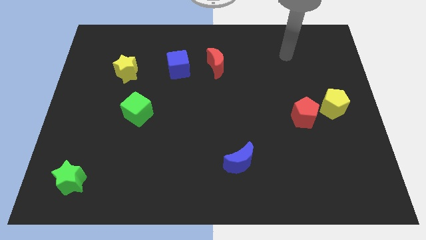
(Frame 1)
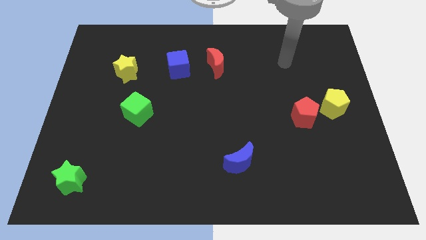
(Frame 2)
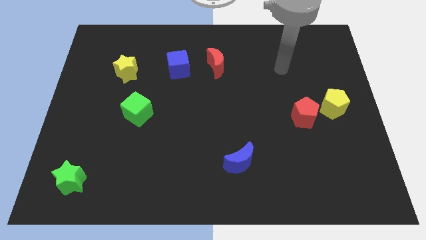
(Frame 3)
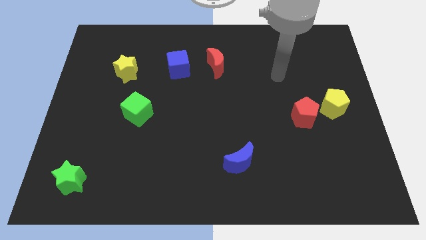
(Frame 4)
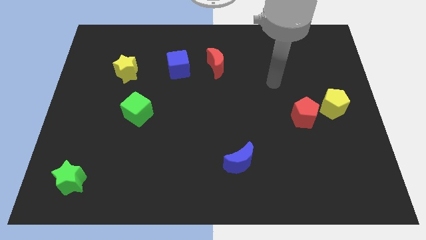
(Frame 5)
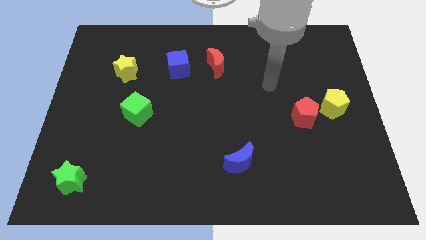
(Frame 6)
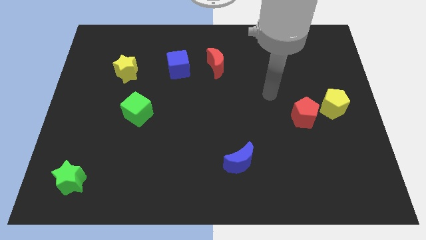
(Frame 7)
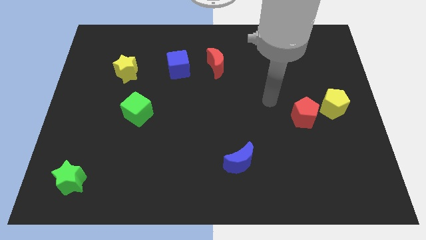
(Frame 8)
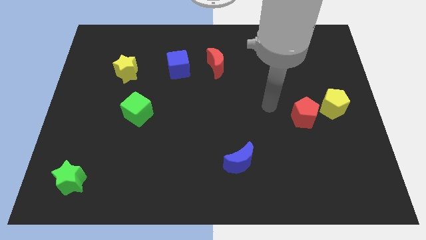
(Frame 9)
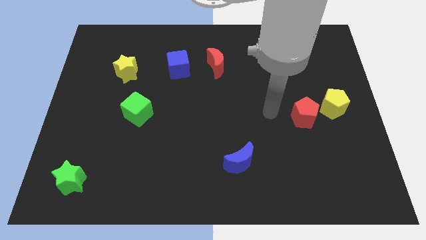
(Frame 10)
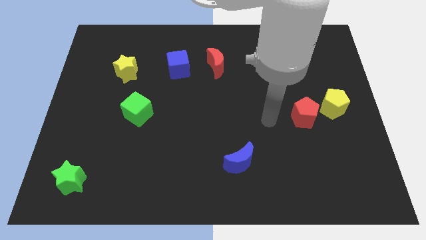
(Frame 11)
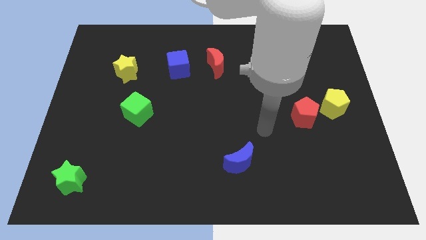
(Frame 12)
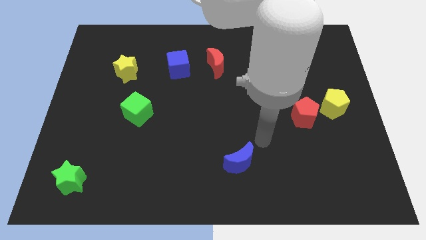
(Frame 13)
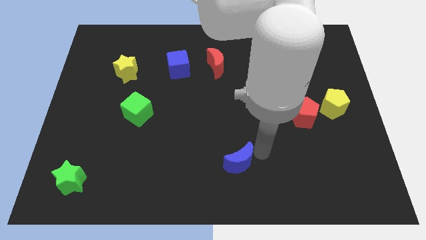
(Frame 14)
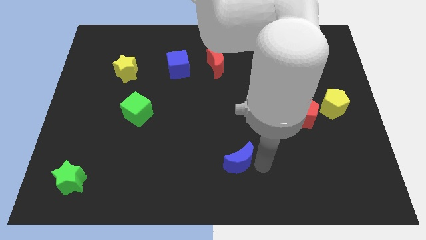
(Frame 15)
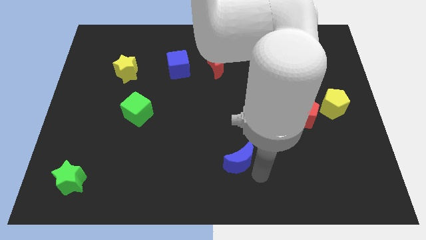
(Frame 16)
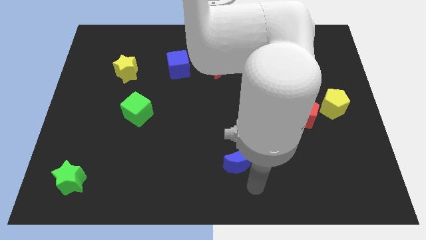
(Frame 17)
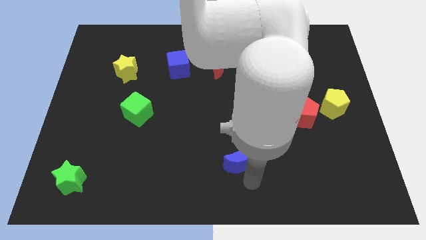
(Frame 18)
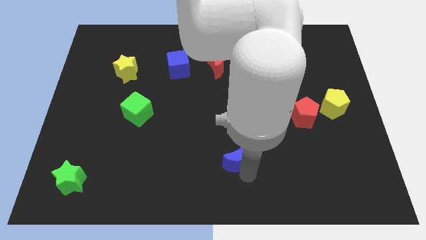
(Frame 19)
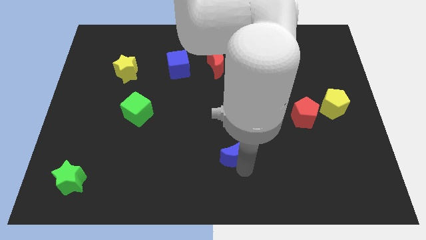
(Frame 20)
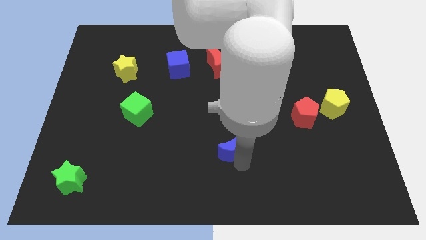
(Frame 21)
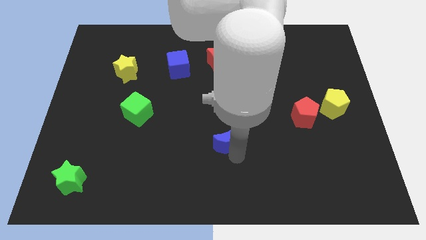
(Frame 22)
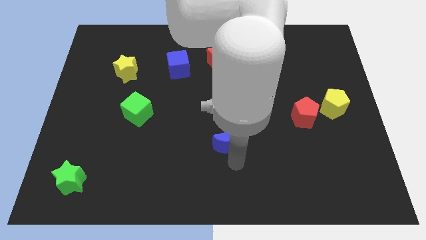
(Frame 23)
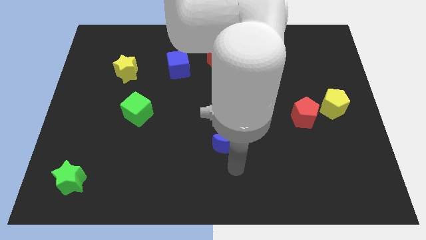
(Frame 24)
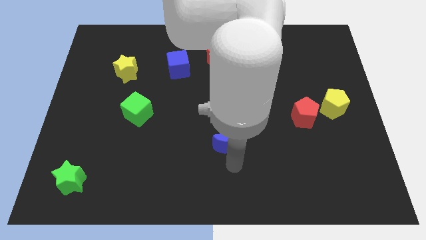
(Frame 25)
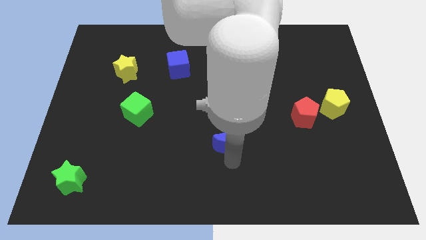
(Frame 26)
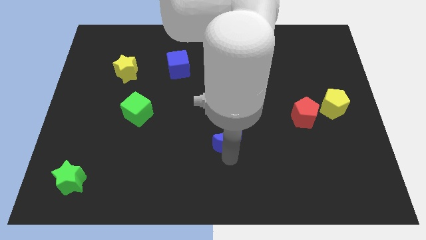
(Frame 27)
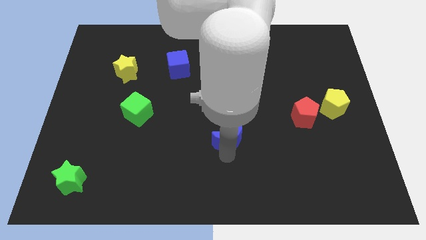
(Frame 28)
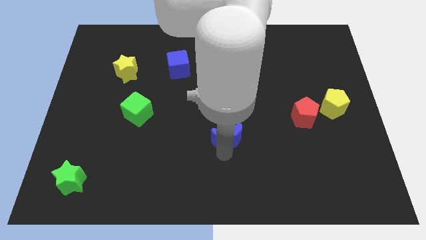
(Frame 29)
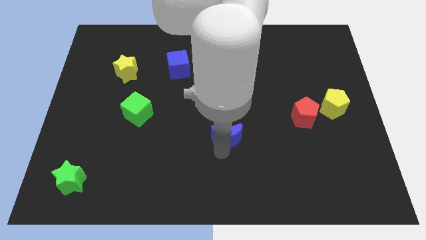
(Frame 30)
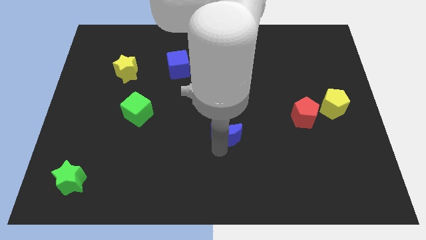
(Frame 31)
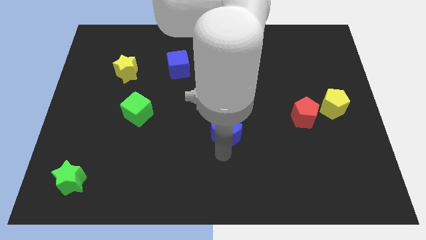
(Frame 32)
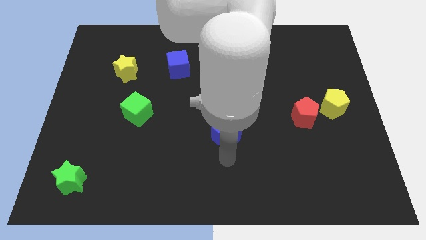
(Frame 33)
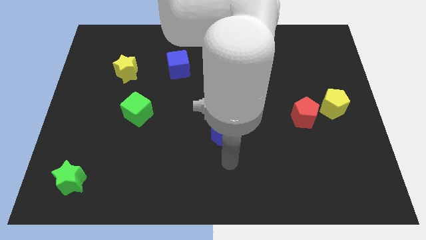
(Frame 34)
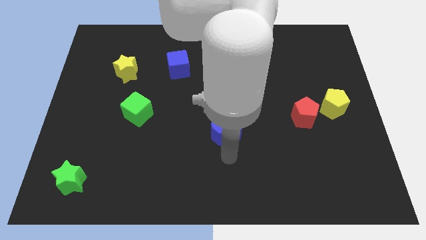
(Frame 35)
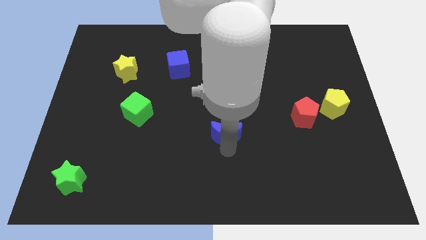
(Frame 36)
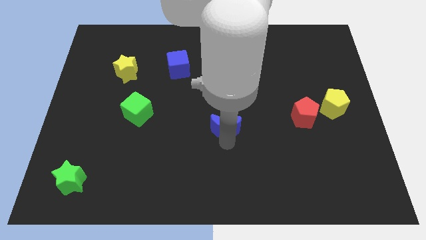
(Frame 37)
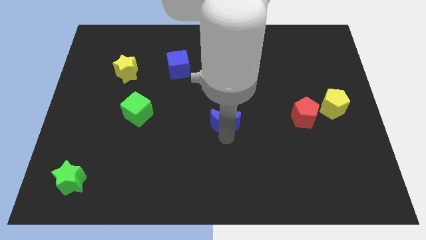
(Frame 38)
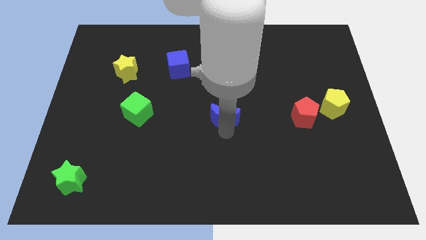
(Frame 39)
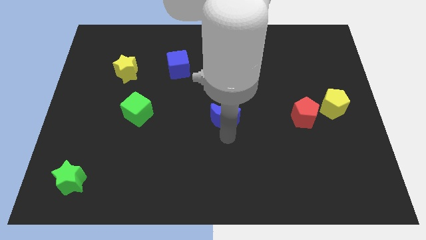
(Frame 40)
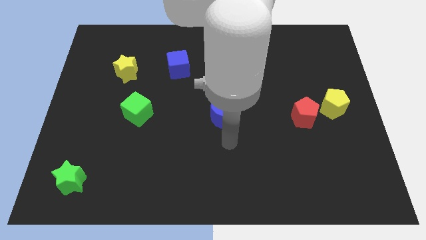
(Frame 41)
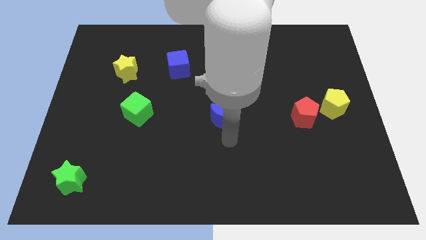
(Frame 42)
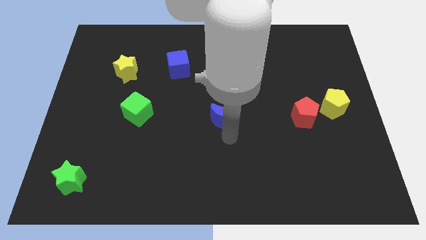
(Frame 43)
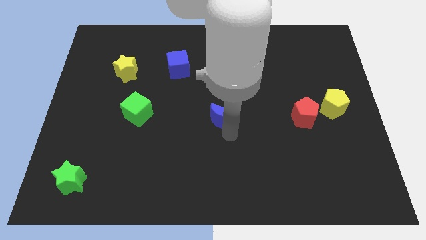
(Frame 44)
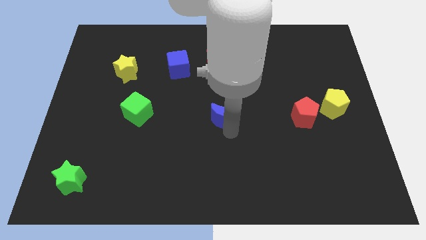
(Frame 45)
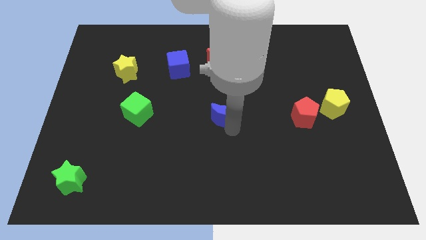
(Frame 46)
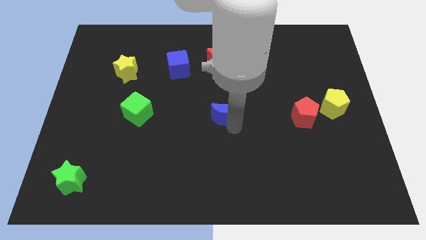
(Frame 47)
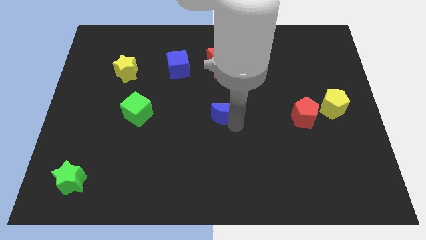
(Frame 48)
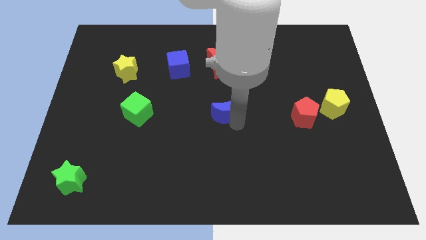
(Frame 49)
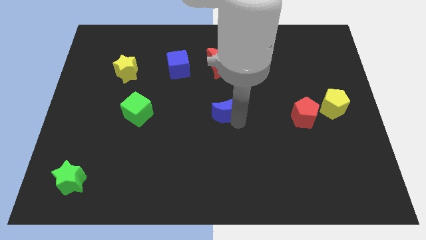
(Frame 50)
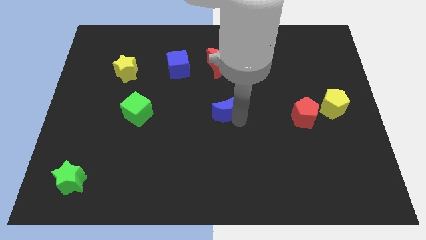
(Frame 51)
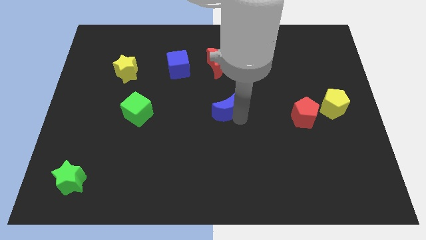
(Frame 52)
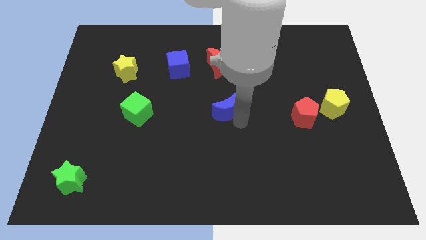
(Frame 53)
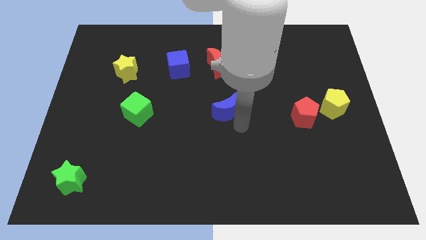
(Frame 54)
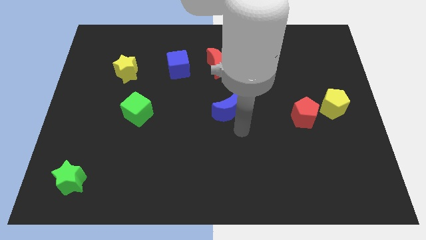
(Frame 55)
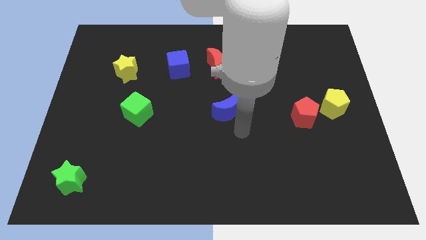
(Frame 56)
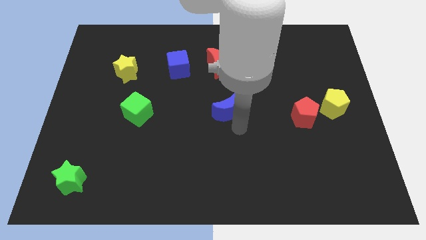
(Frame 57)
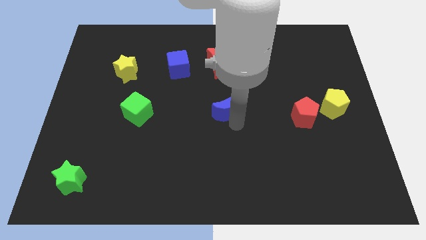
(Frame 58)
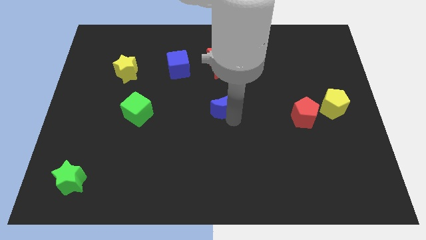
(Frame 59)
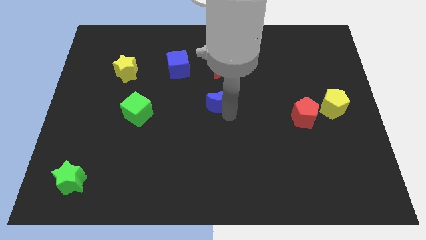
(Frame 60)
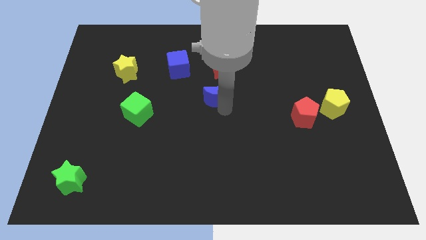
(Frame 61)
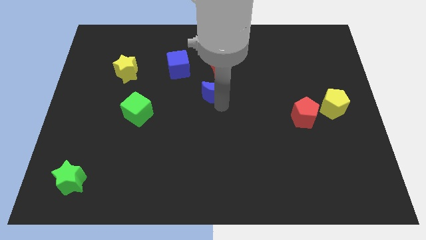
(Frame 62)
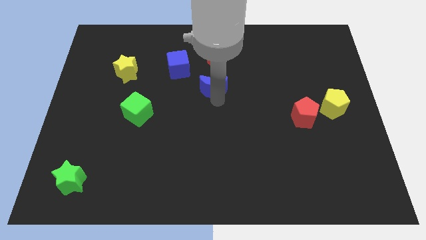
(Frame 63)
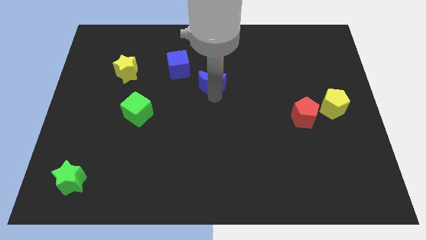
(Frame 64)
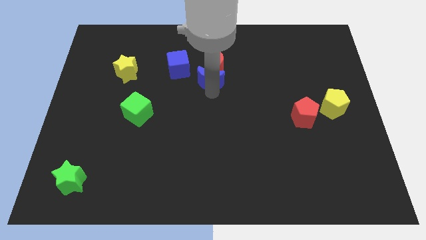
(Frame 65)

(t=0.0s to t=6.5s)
push the blue moon to the red moon

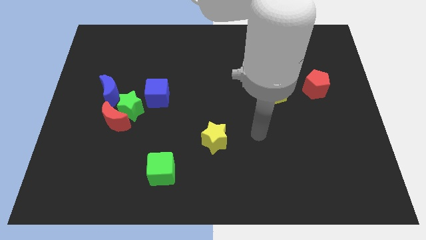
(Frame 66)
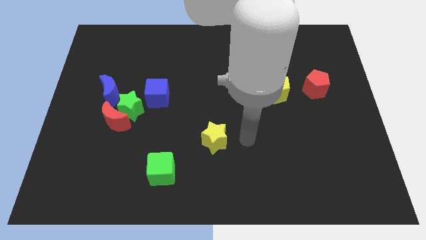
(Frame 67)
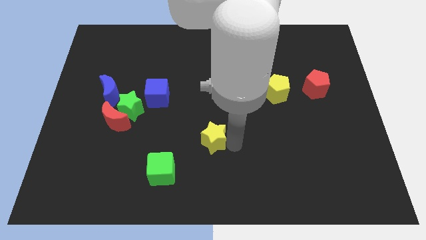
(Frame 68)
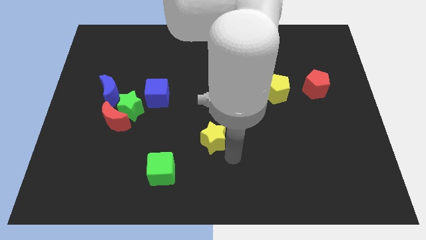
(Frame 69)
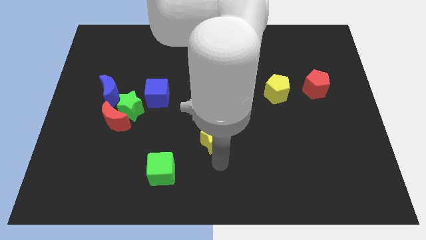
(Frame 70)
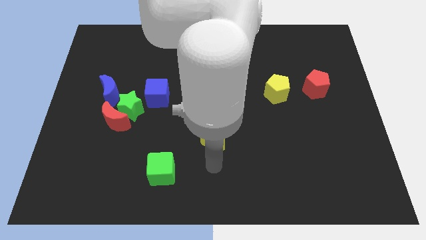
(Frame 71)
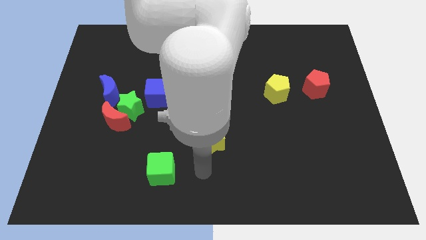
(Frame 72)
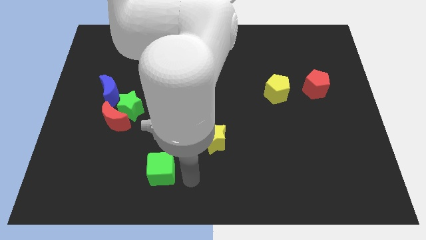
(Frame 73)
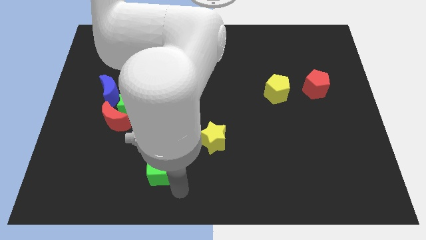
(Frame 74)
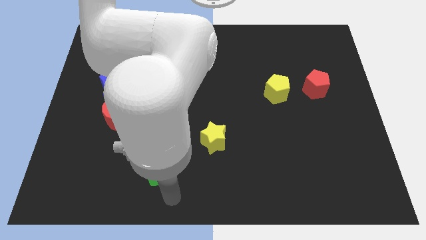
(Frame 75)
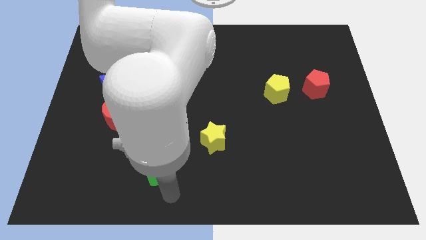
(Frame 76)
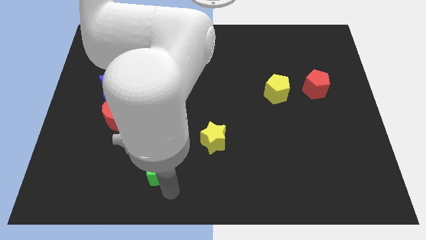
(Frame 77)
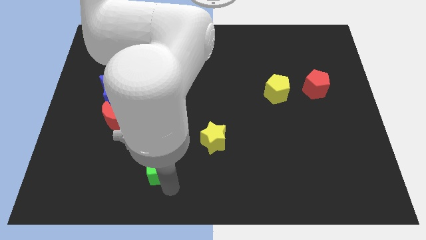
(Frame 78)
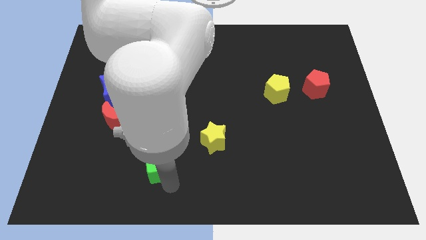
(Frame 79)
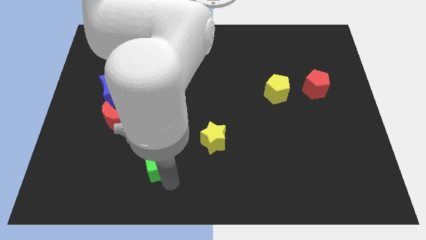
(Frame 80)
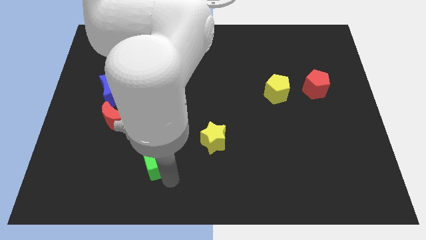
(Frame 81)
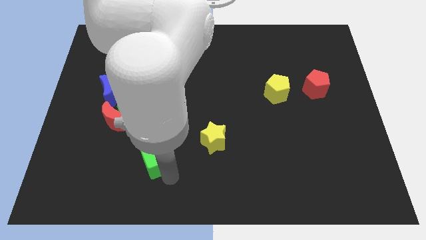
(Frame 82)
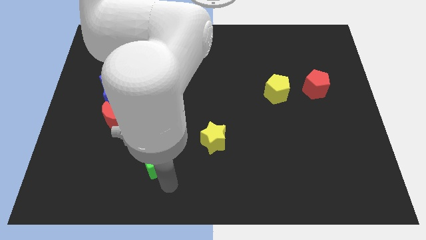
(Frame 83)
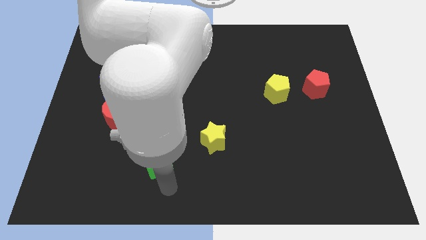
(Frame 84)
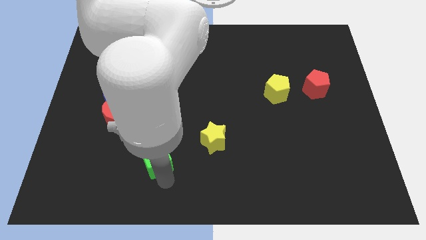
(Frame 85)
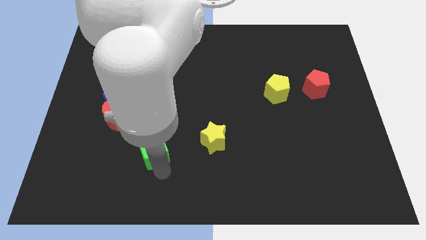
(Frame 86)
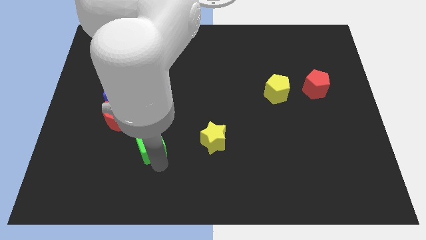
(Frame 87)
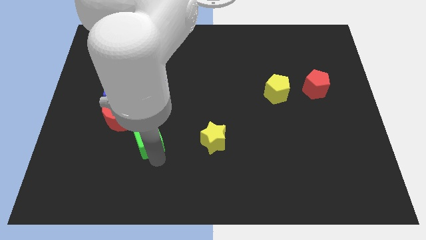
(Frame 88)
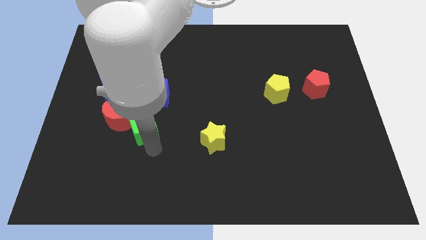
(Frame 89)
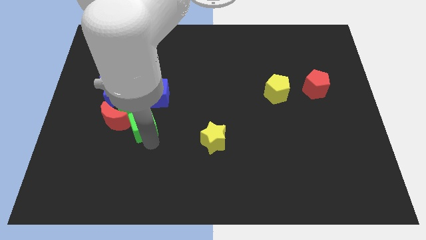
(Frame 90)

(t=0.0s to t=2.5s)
put the green cube next to the green star
